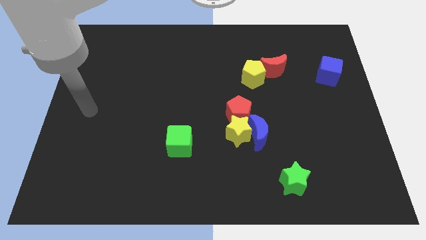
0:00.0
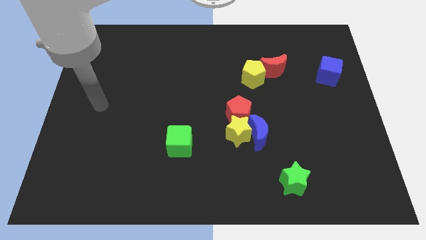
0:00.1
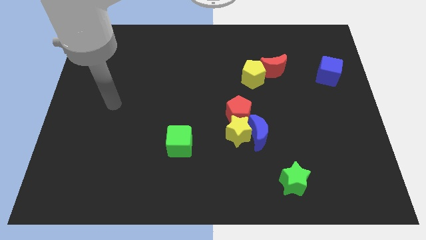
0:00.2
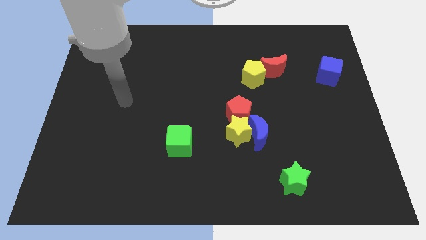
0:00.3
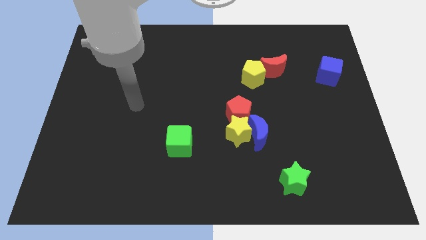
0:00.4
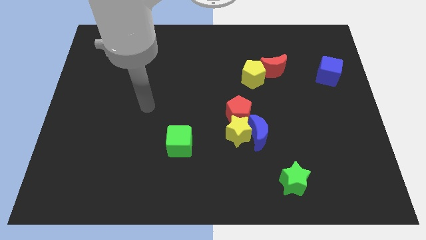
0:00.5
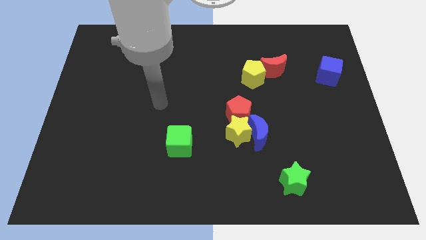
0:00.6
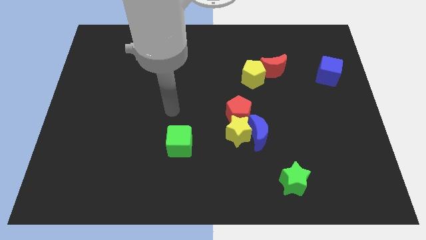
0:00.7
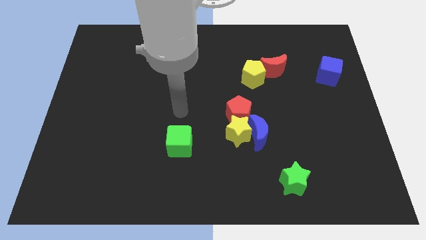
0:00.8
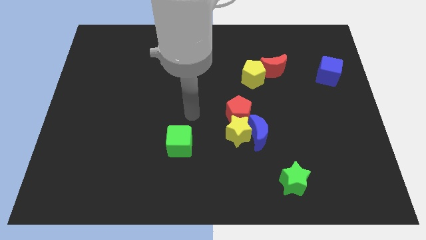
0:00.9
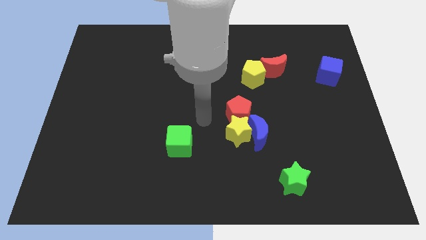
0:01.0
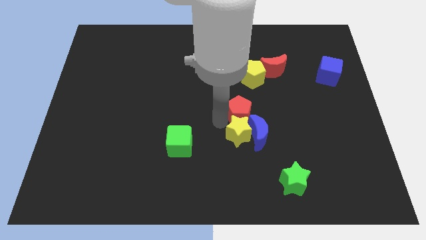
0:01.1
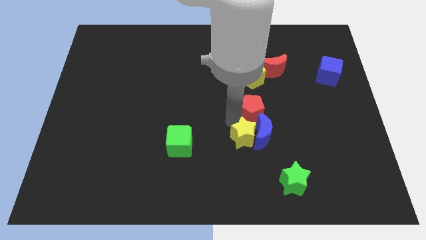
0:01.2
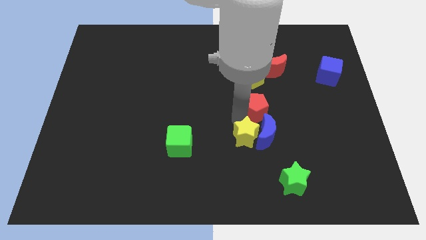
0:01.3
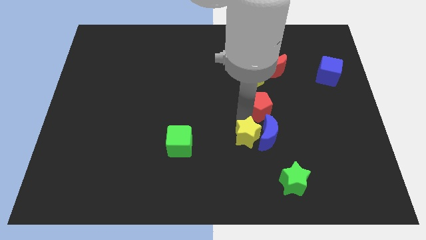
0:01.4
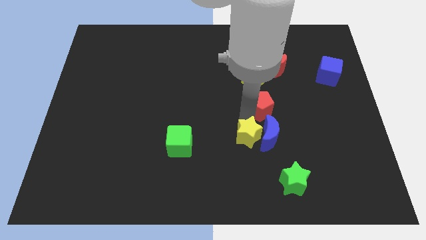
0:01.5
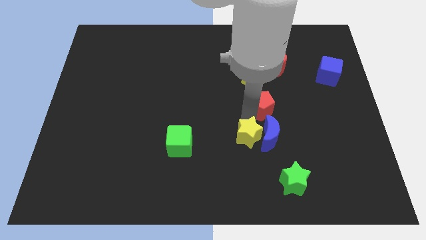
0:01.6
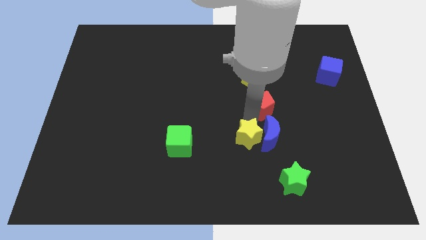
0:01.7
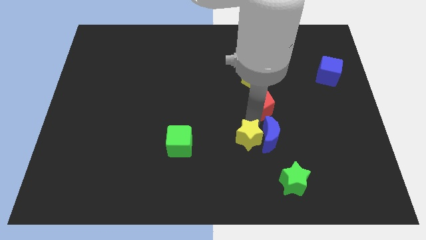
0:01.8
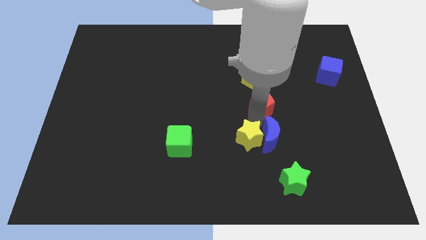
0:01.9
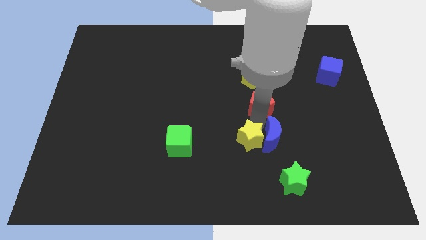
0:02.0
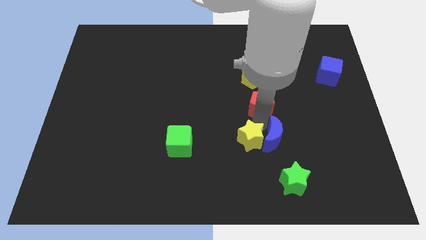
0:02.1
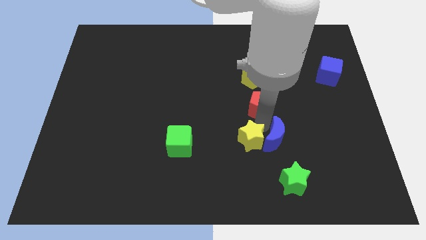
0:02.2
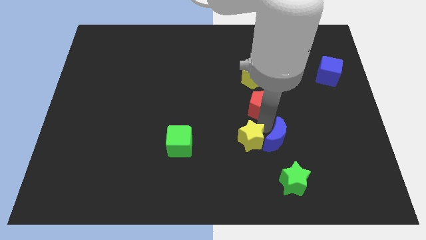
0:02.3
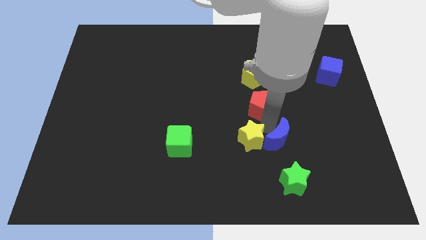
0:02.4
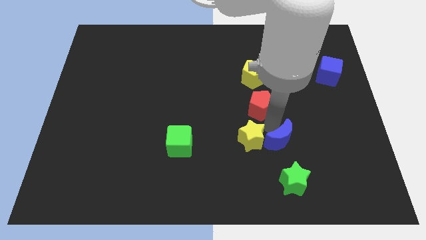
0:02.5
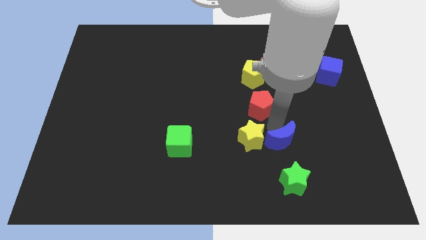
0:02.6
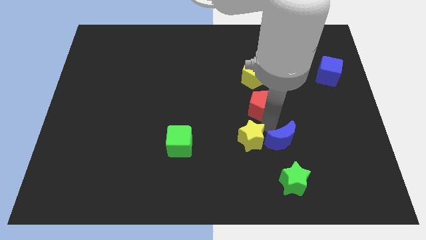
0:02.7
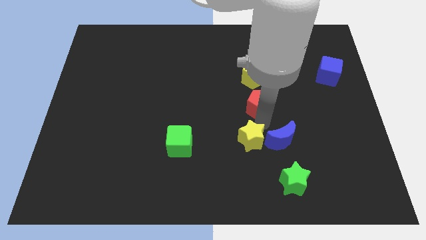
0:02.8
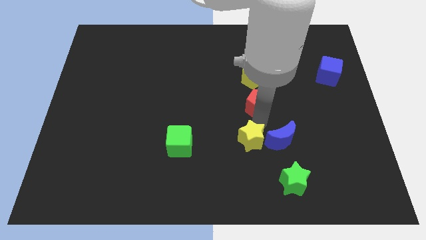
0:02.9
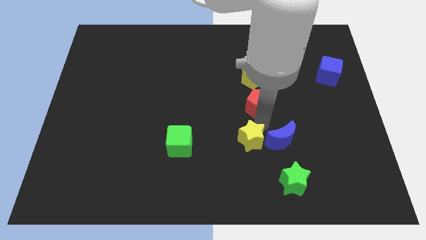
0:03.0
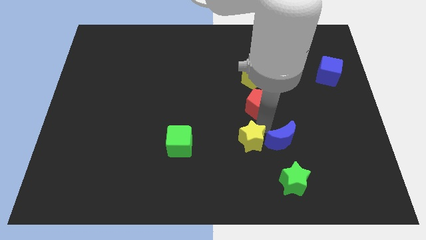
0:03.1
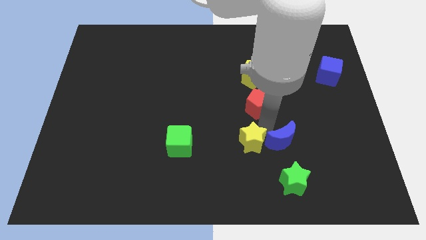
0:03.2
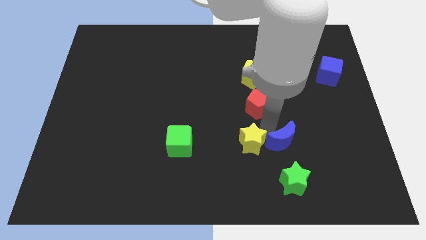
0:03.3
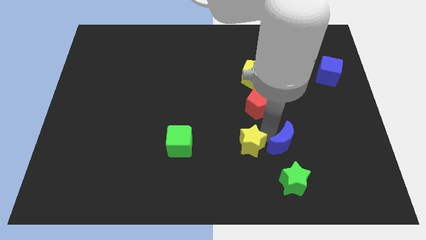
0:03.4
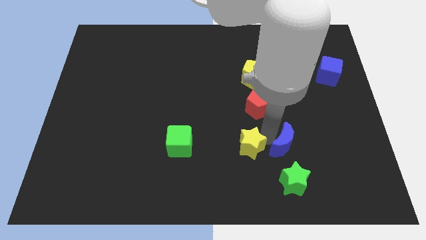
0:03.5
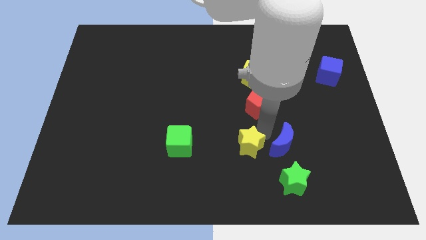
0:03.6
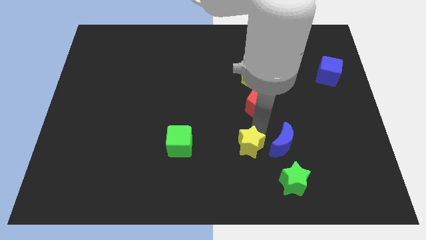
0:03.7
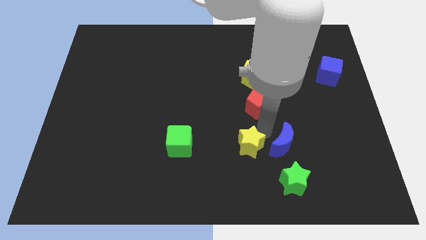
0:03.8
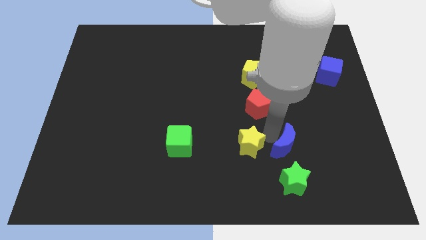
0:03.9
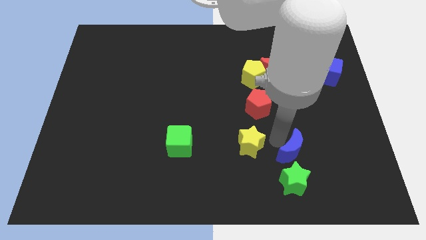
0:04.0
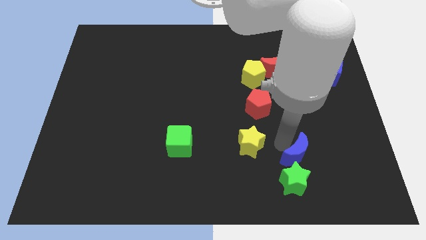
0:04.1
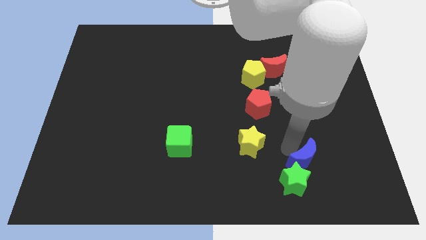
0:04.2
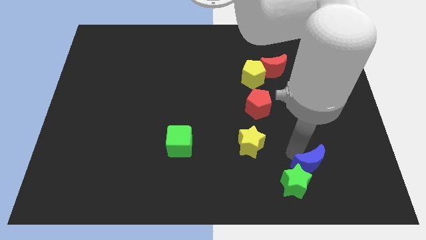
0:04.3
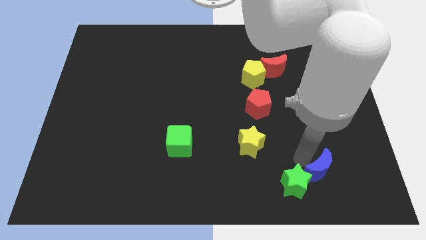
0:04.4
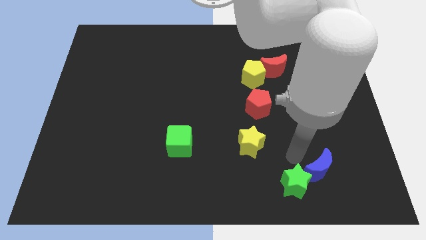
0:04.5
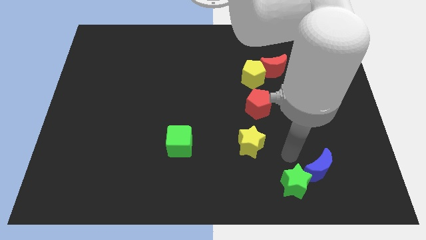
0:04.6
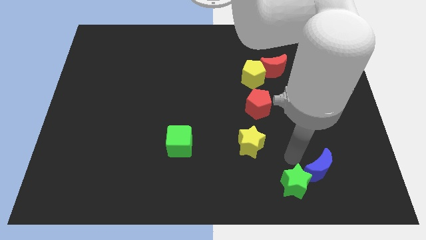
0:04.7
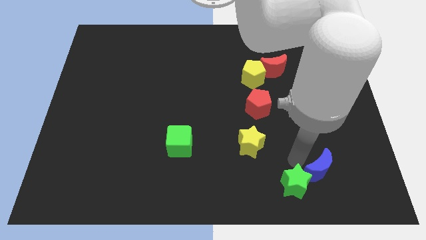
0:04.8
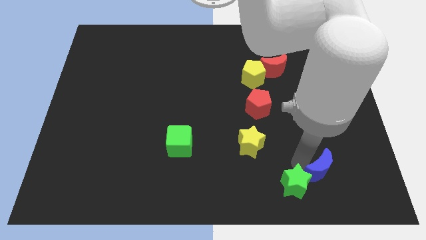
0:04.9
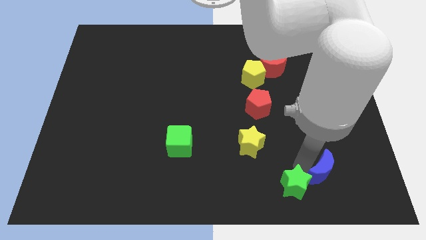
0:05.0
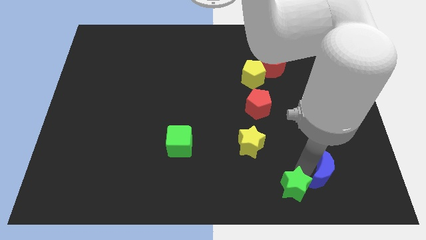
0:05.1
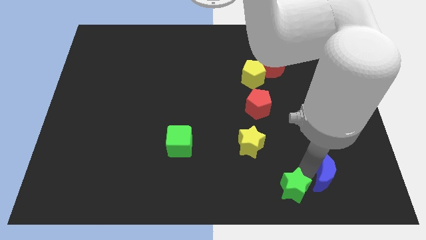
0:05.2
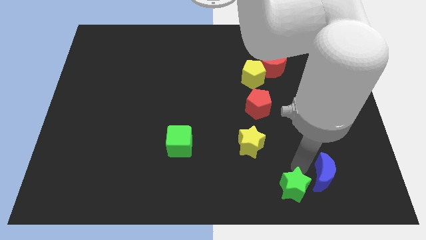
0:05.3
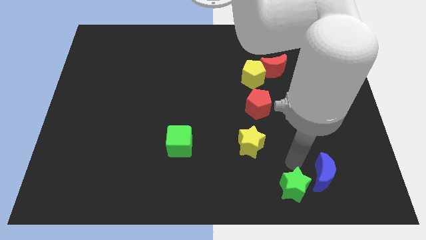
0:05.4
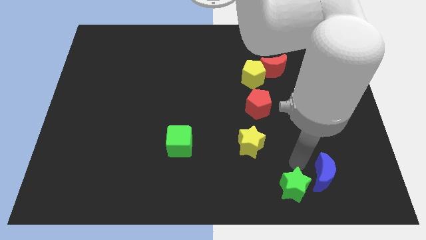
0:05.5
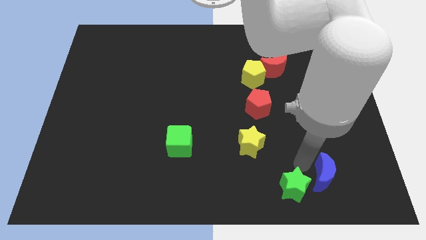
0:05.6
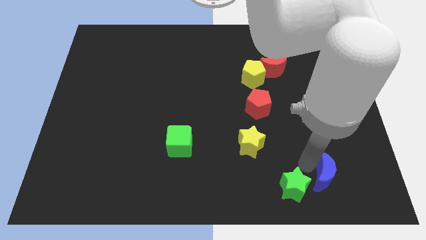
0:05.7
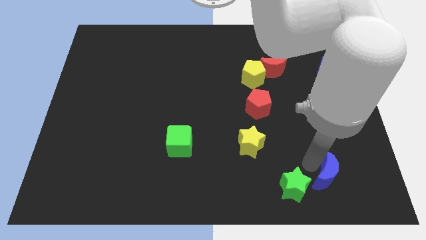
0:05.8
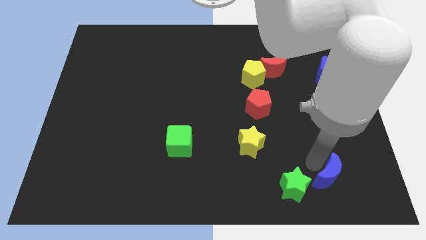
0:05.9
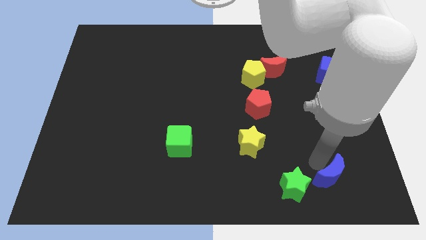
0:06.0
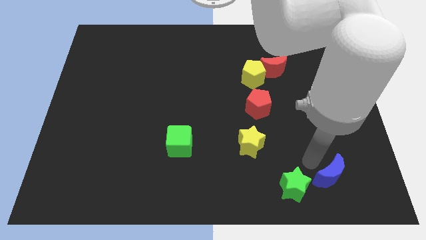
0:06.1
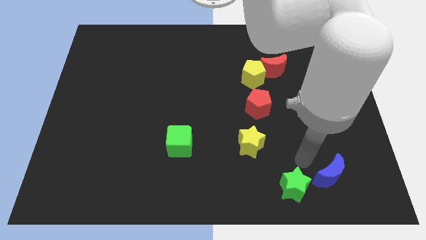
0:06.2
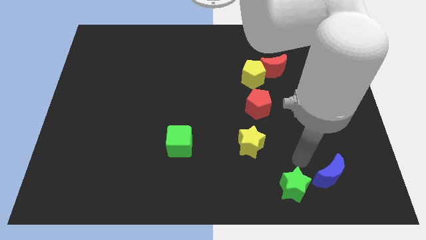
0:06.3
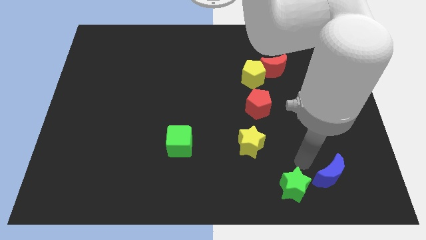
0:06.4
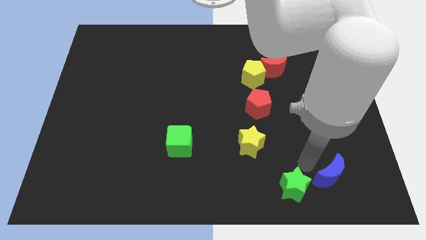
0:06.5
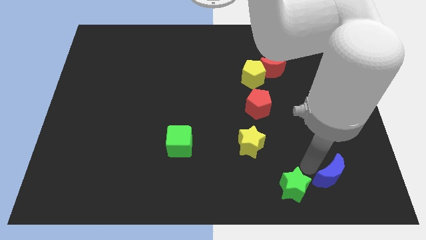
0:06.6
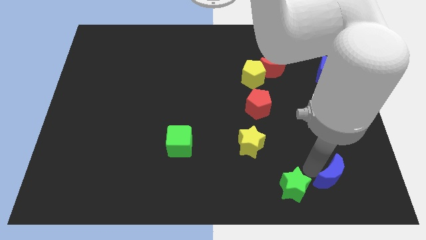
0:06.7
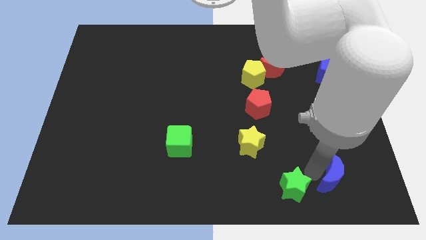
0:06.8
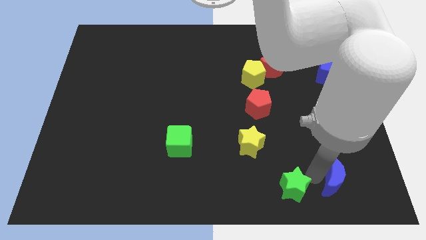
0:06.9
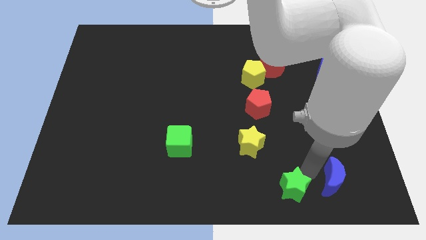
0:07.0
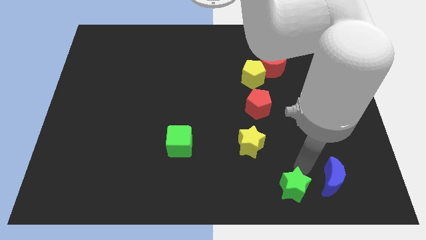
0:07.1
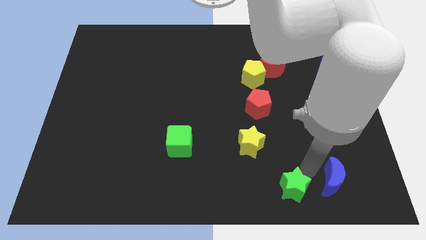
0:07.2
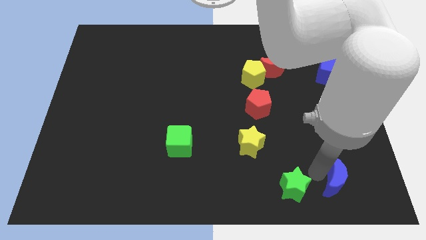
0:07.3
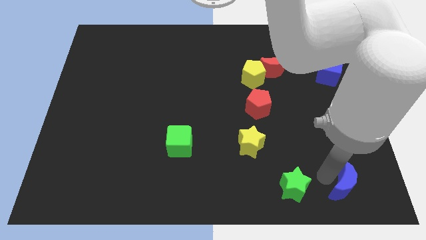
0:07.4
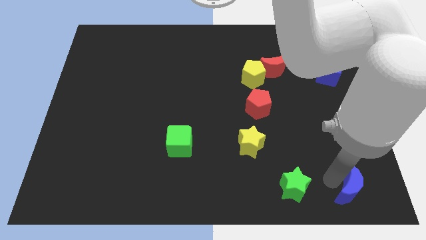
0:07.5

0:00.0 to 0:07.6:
slide the blue moon to the bottom right corner
